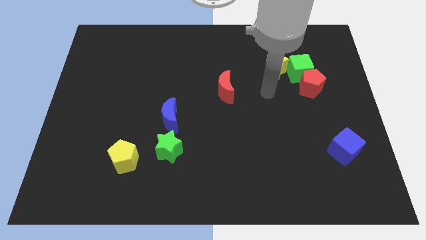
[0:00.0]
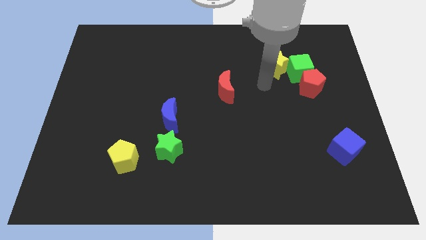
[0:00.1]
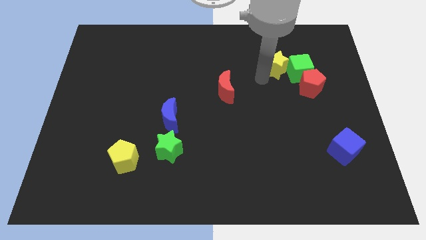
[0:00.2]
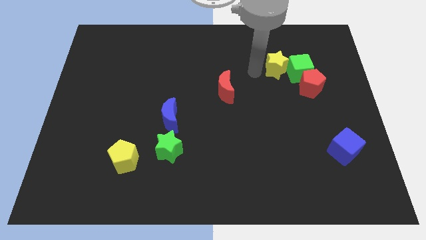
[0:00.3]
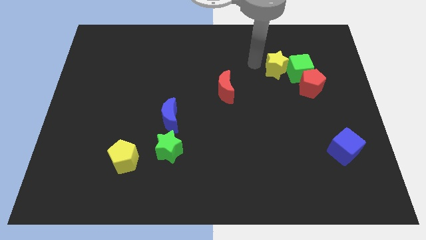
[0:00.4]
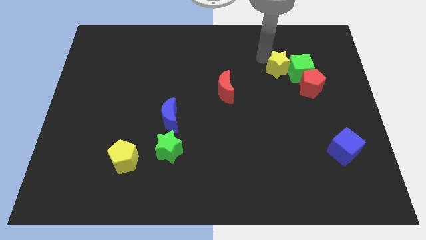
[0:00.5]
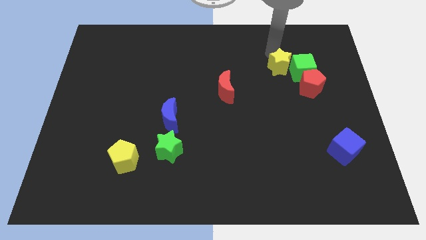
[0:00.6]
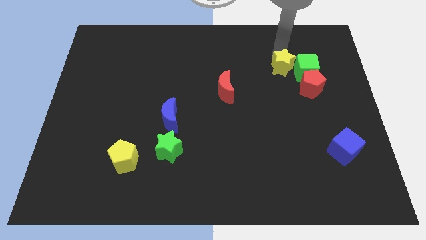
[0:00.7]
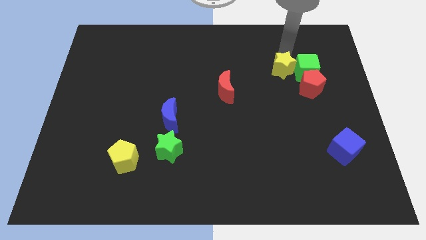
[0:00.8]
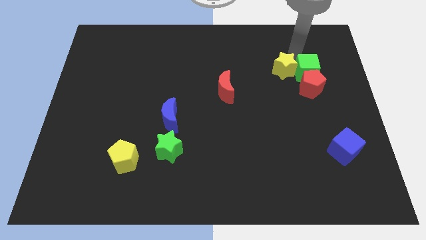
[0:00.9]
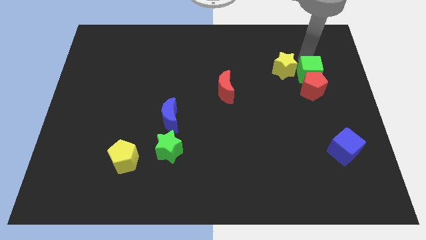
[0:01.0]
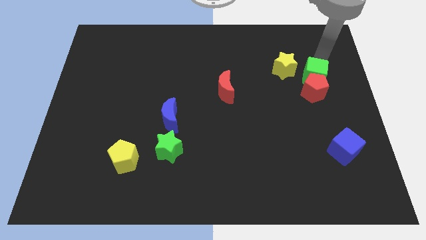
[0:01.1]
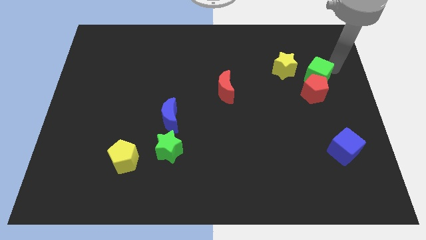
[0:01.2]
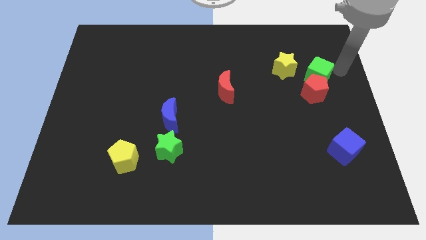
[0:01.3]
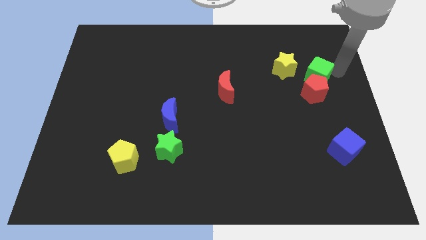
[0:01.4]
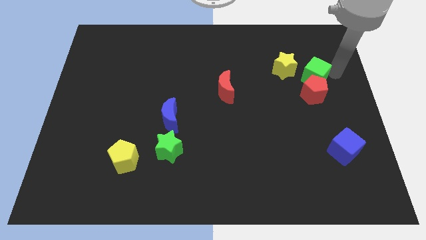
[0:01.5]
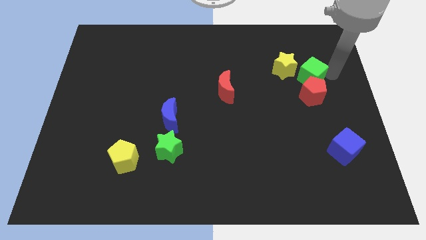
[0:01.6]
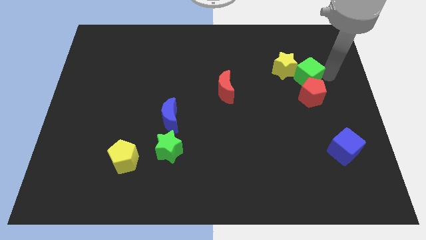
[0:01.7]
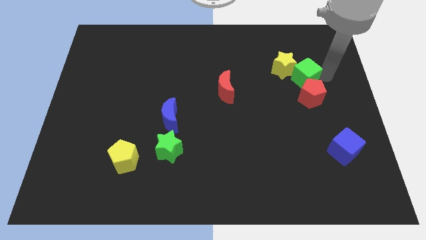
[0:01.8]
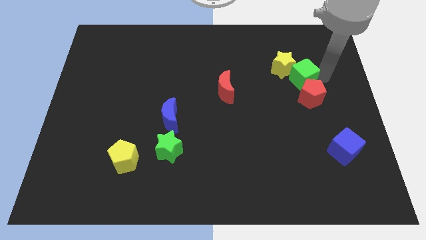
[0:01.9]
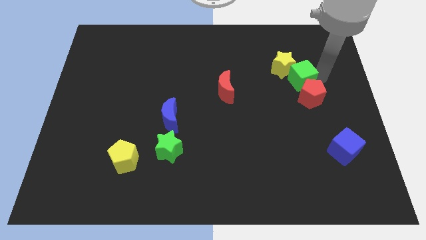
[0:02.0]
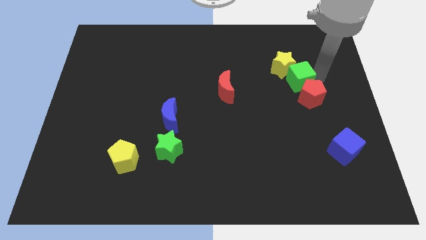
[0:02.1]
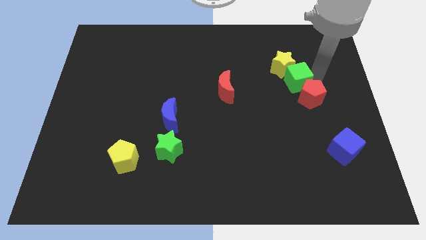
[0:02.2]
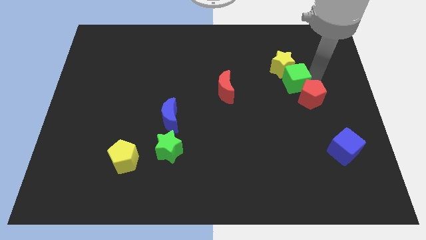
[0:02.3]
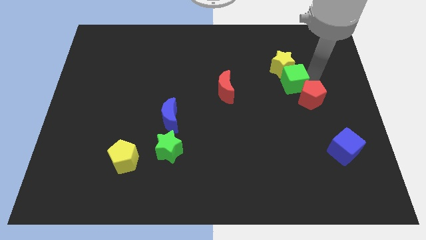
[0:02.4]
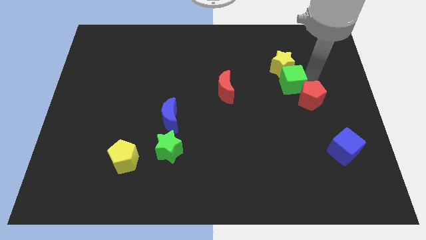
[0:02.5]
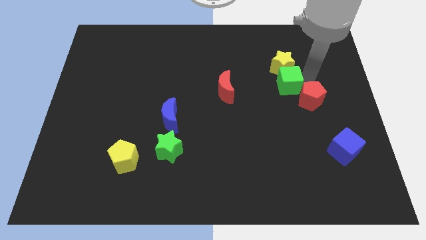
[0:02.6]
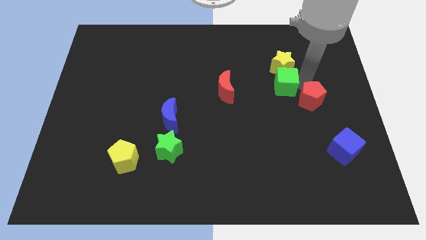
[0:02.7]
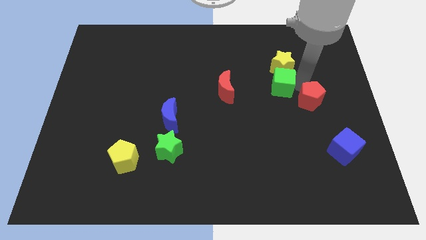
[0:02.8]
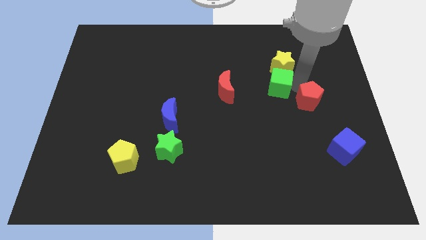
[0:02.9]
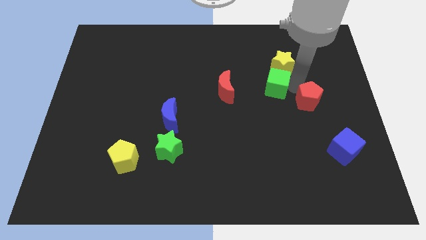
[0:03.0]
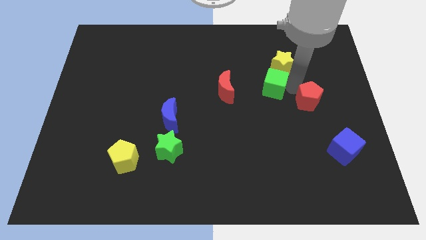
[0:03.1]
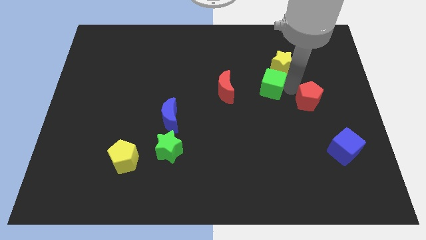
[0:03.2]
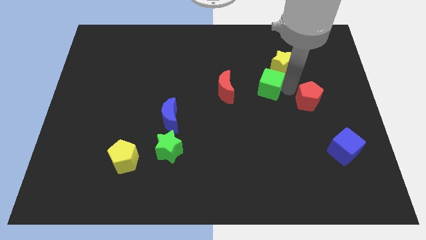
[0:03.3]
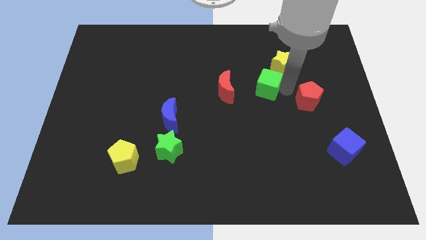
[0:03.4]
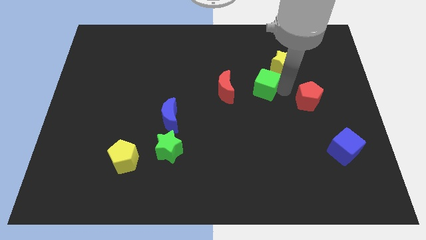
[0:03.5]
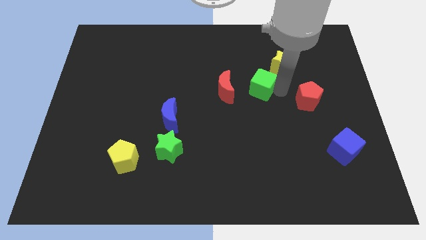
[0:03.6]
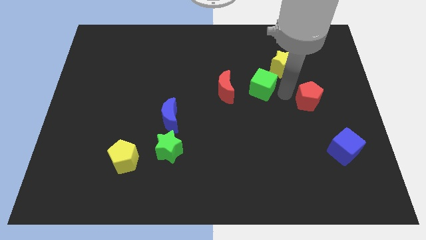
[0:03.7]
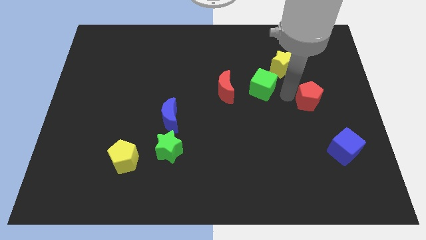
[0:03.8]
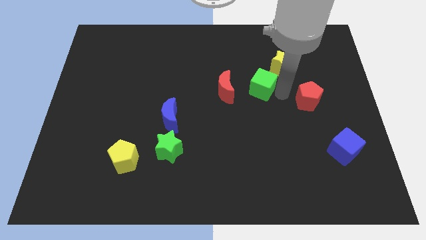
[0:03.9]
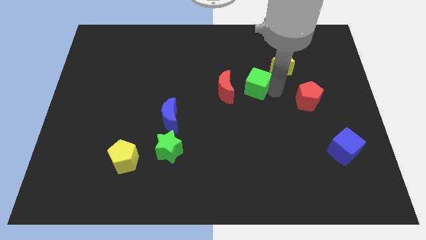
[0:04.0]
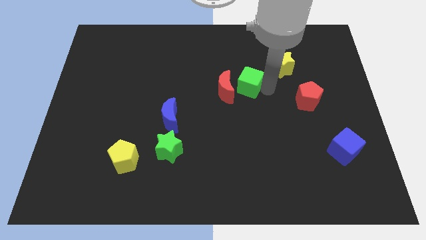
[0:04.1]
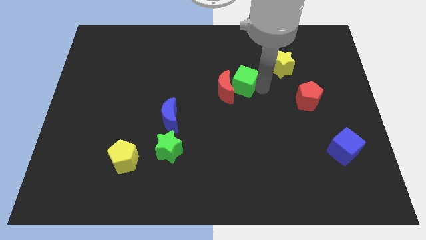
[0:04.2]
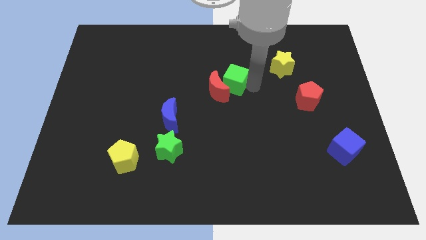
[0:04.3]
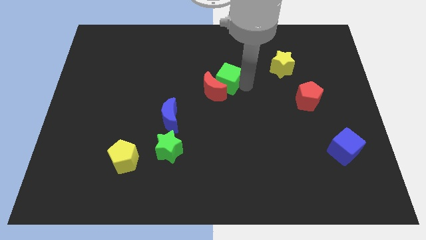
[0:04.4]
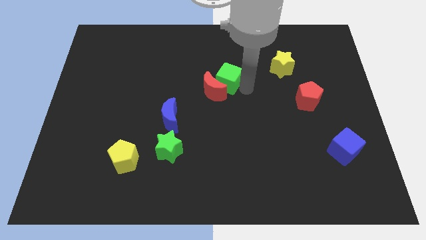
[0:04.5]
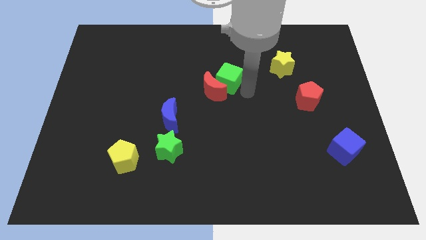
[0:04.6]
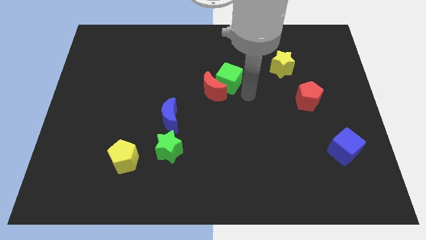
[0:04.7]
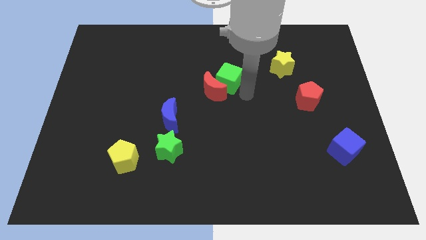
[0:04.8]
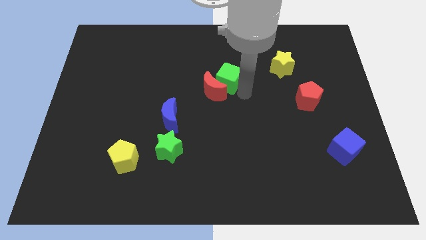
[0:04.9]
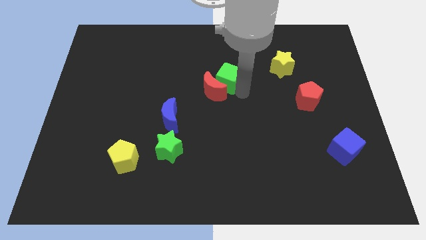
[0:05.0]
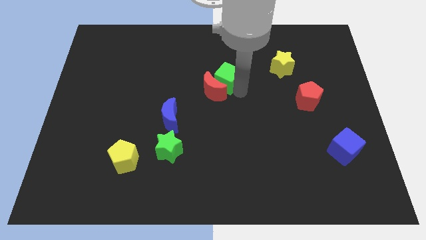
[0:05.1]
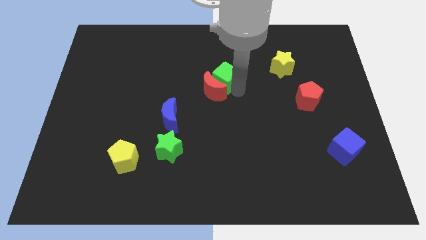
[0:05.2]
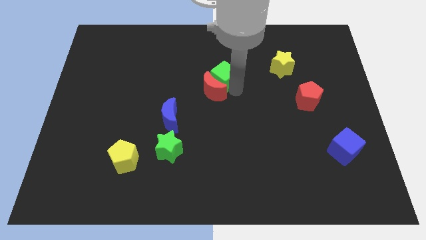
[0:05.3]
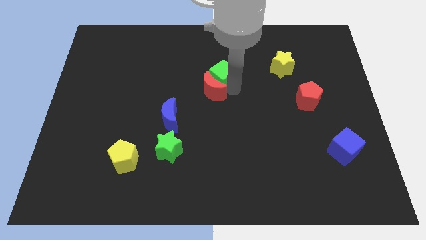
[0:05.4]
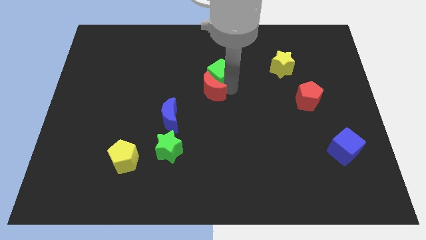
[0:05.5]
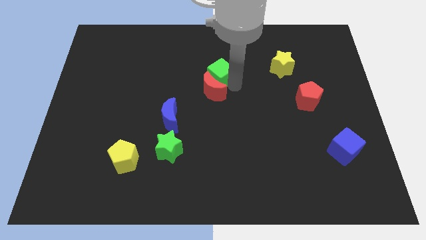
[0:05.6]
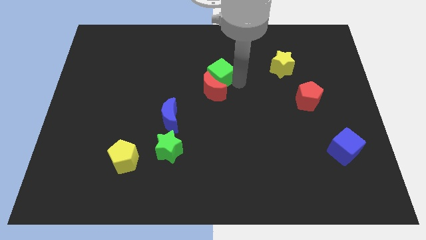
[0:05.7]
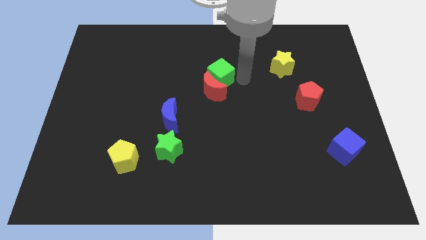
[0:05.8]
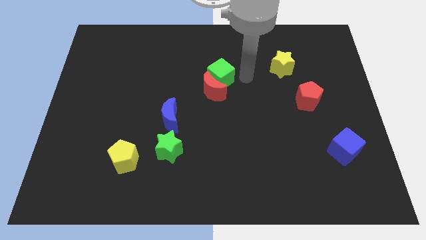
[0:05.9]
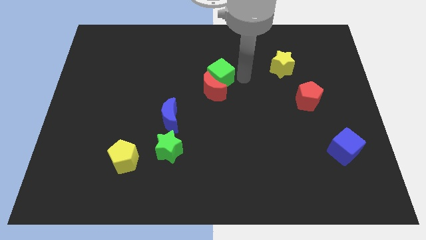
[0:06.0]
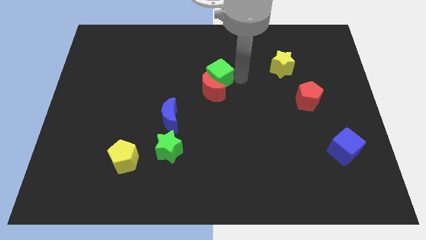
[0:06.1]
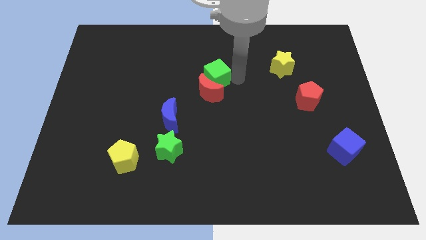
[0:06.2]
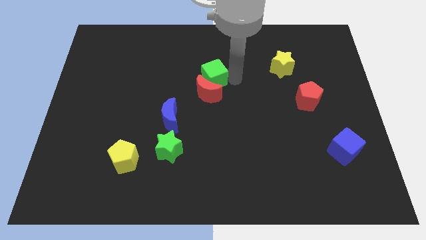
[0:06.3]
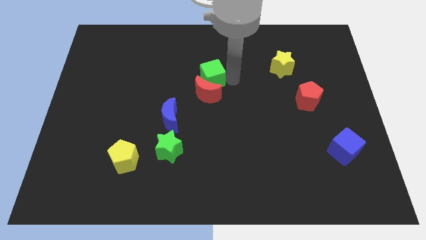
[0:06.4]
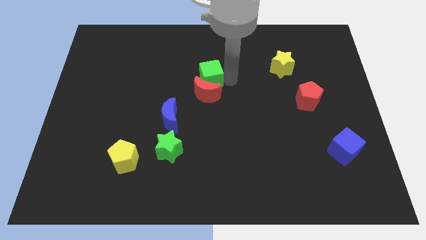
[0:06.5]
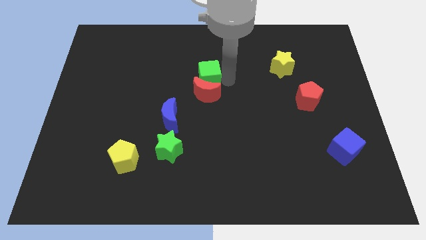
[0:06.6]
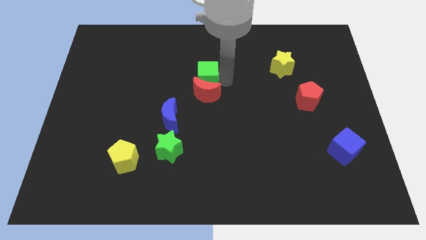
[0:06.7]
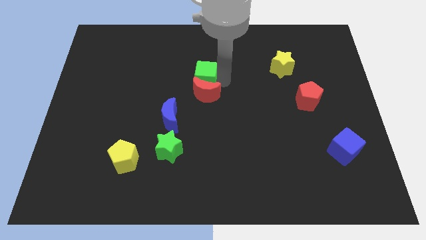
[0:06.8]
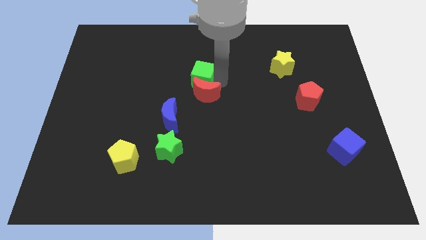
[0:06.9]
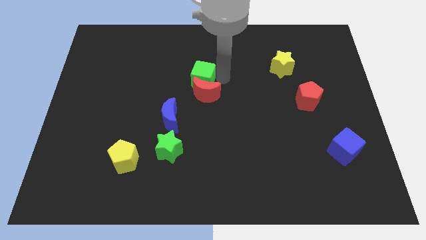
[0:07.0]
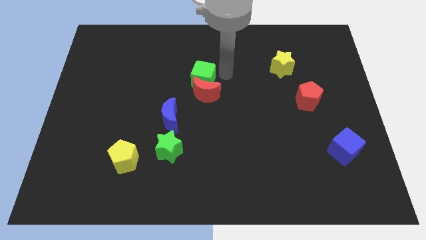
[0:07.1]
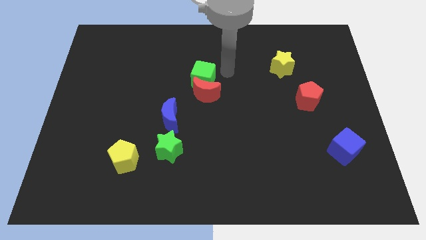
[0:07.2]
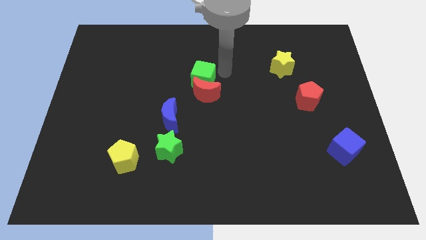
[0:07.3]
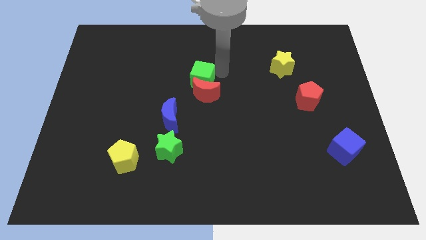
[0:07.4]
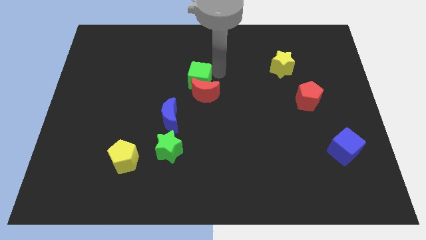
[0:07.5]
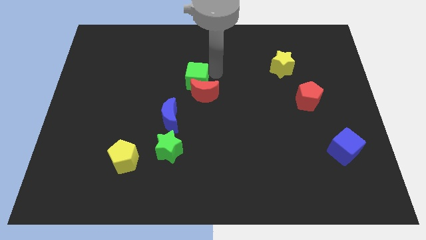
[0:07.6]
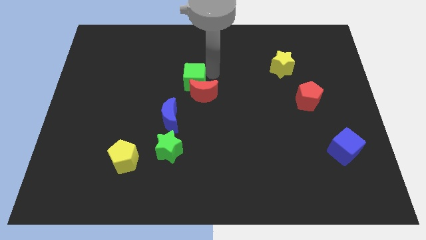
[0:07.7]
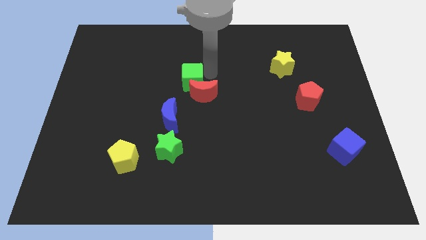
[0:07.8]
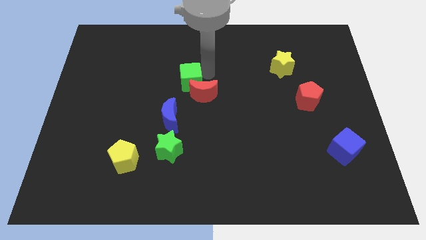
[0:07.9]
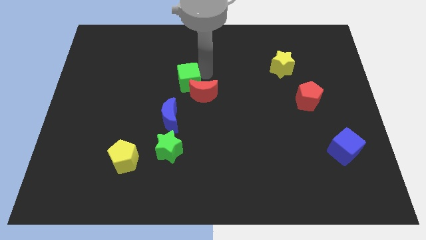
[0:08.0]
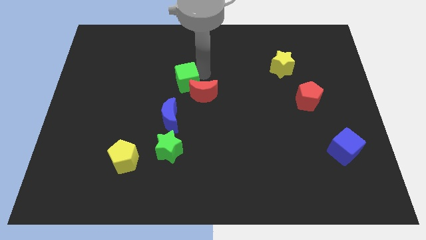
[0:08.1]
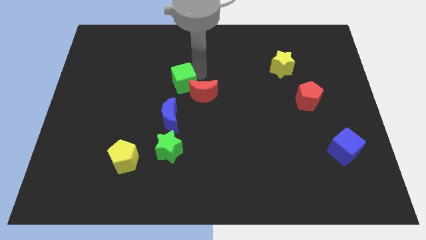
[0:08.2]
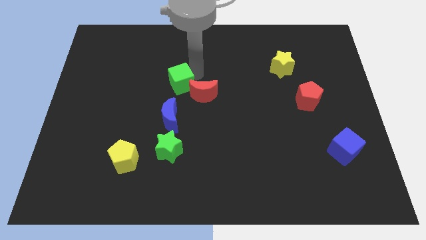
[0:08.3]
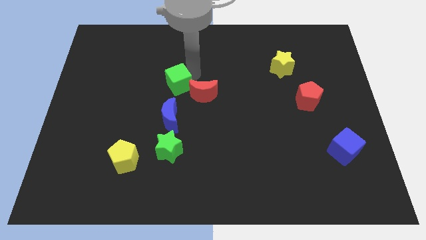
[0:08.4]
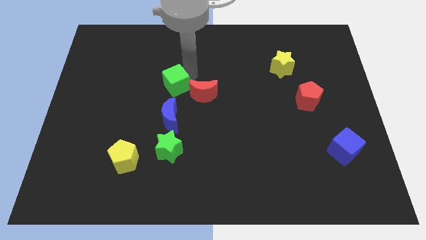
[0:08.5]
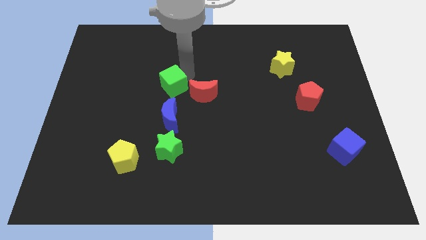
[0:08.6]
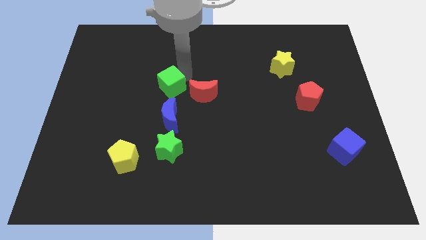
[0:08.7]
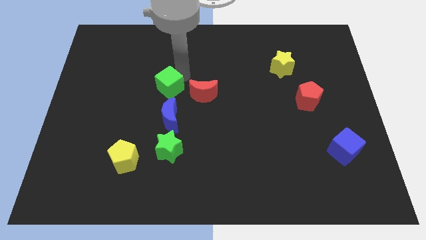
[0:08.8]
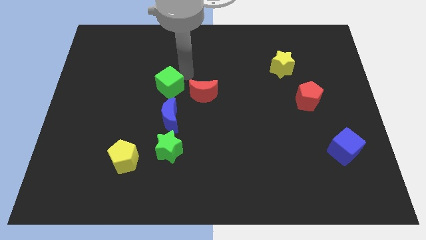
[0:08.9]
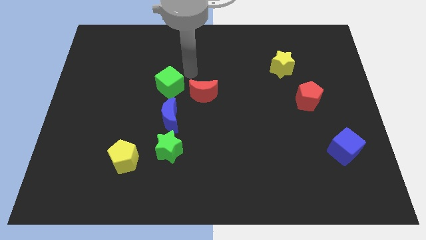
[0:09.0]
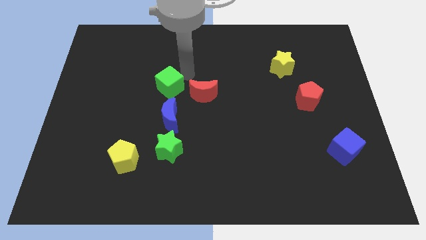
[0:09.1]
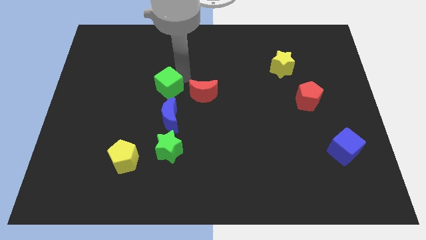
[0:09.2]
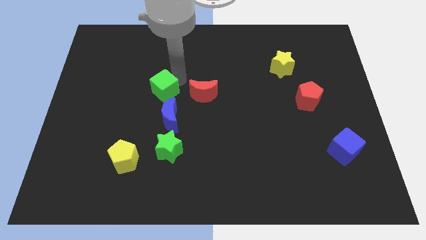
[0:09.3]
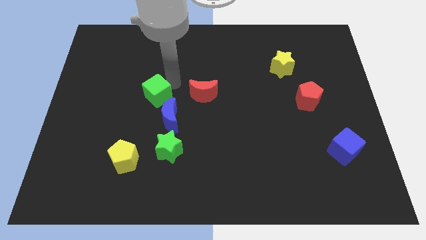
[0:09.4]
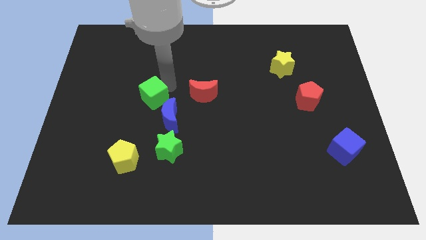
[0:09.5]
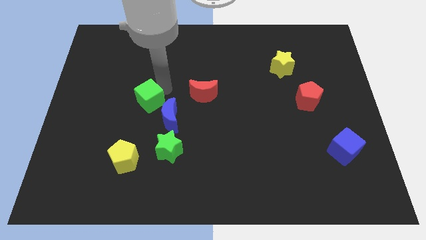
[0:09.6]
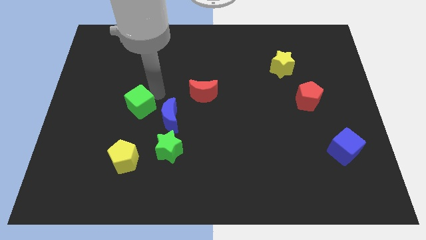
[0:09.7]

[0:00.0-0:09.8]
slide the green cube to the left of the blue moon
